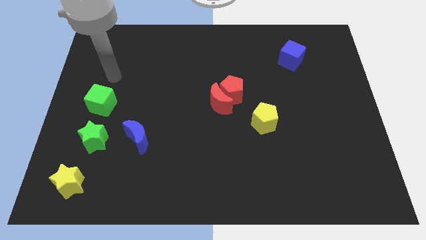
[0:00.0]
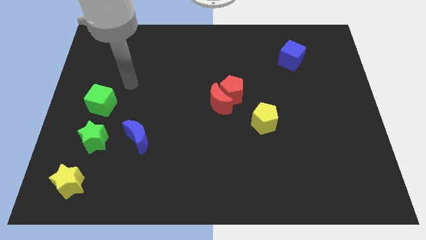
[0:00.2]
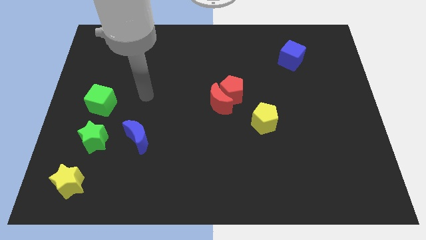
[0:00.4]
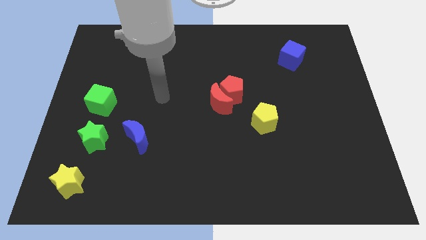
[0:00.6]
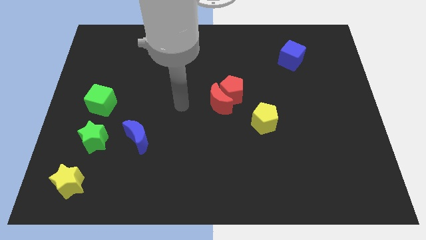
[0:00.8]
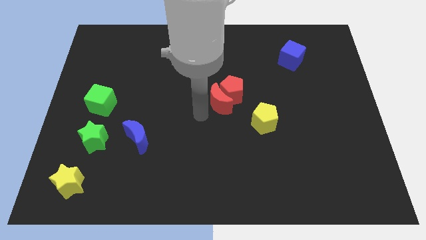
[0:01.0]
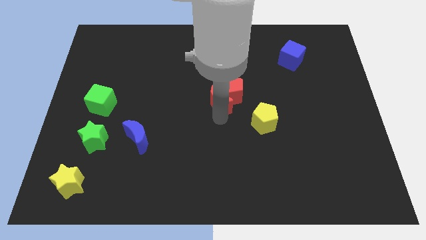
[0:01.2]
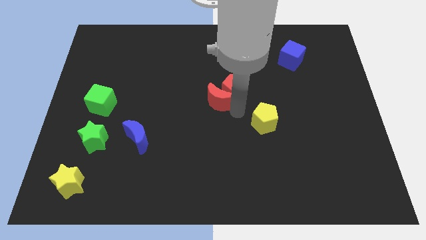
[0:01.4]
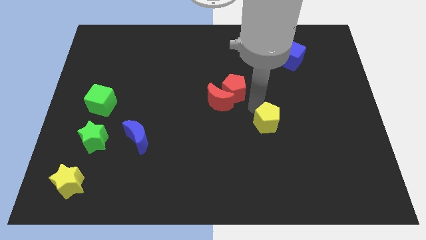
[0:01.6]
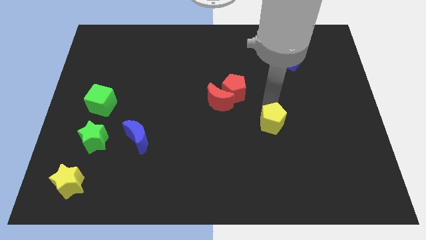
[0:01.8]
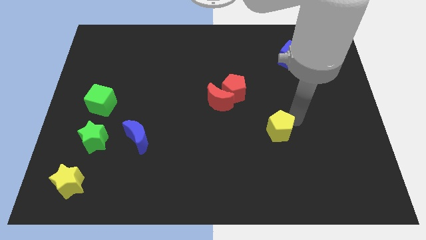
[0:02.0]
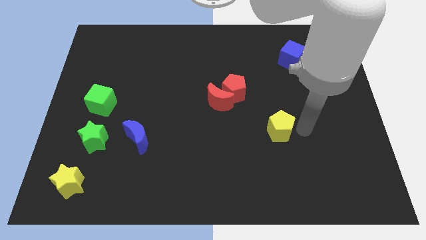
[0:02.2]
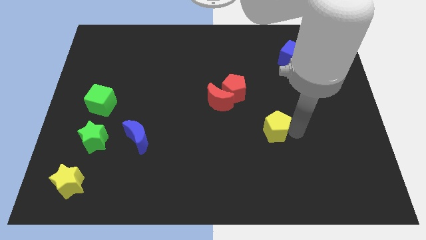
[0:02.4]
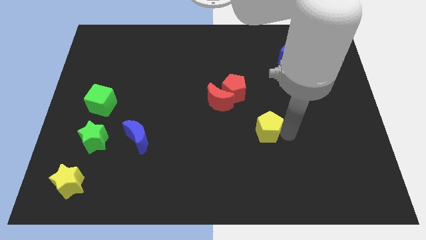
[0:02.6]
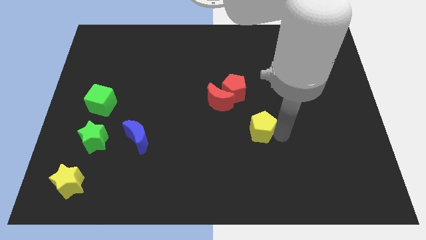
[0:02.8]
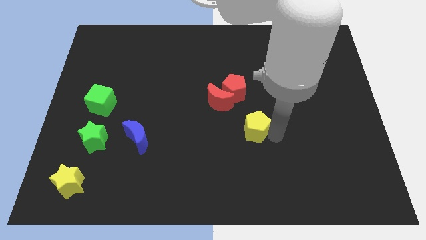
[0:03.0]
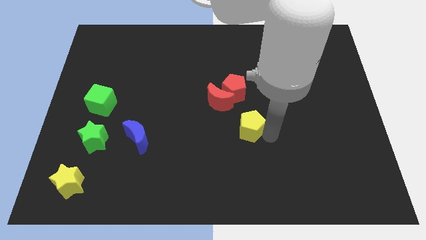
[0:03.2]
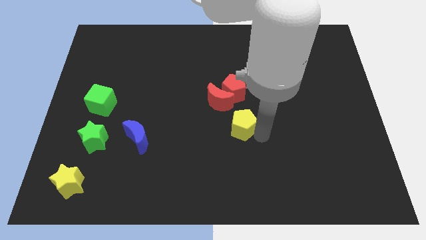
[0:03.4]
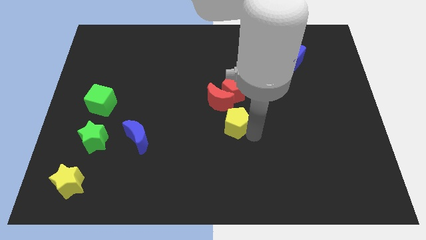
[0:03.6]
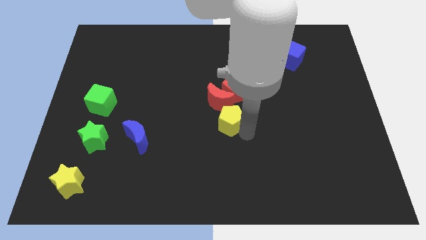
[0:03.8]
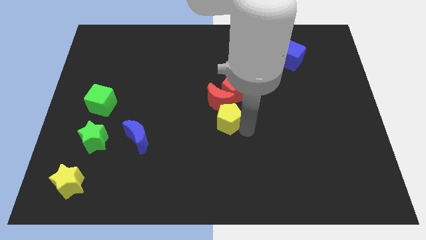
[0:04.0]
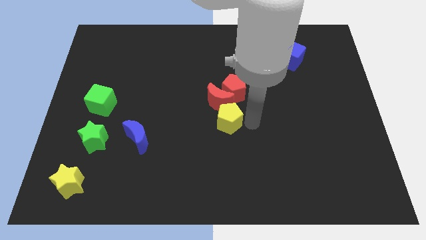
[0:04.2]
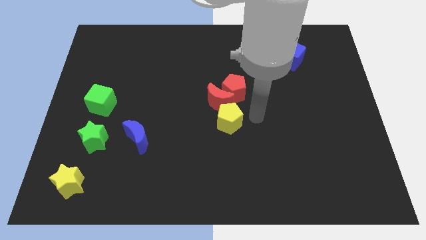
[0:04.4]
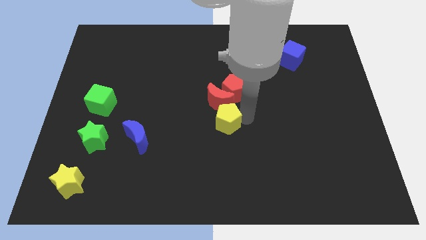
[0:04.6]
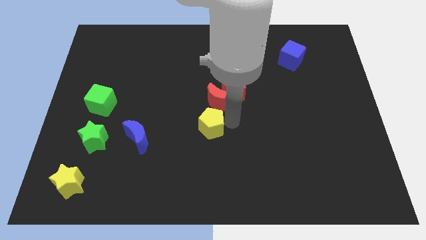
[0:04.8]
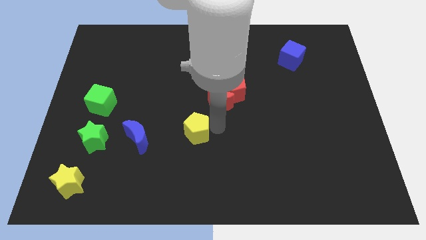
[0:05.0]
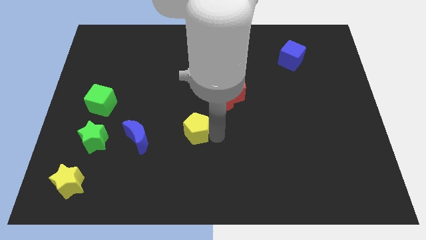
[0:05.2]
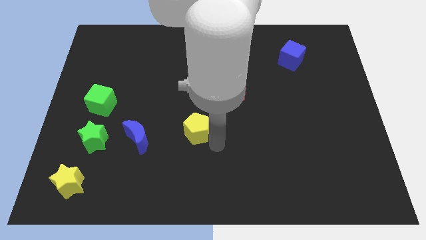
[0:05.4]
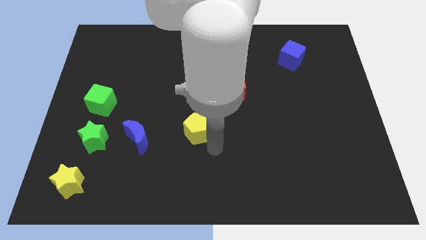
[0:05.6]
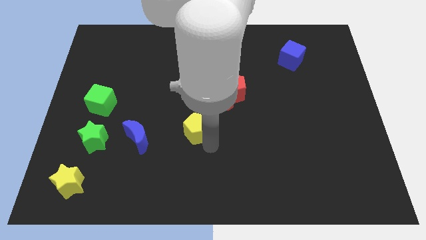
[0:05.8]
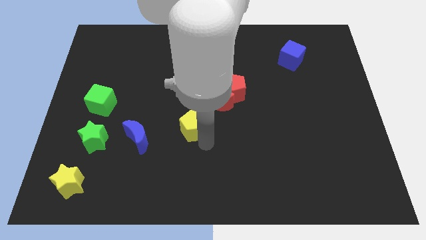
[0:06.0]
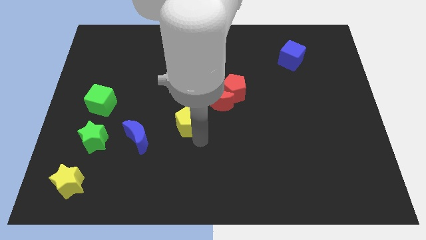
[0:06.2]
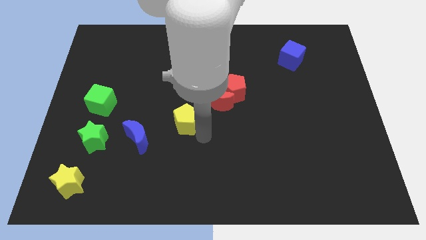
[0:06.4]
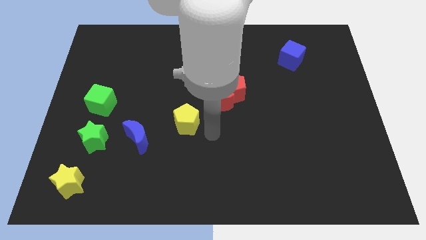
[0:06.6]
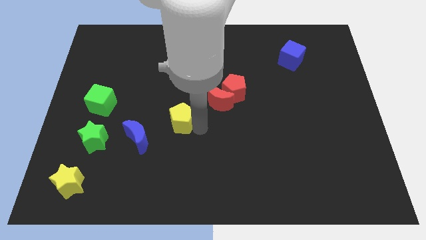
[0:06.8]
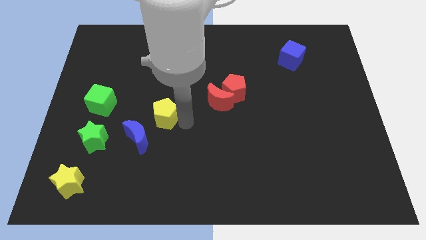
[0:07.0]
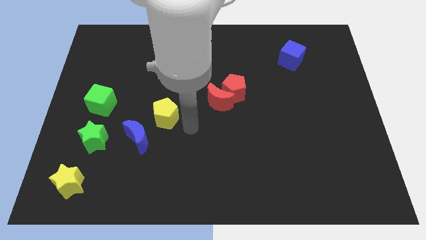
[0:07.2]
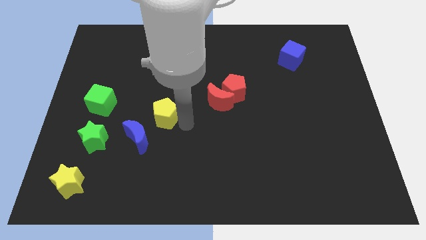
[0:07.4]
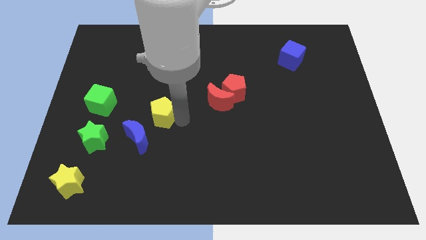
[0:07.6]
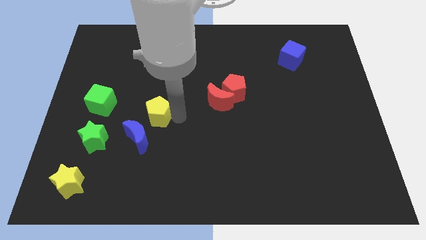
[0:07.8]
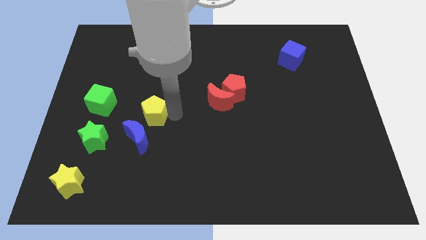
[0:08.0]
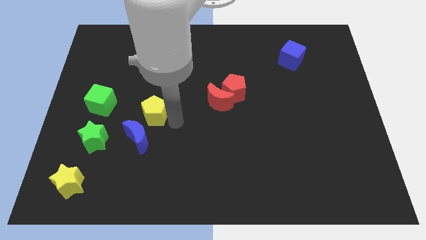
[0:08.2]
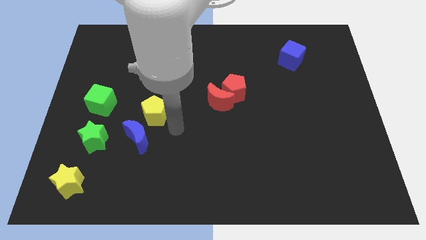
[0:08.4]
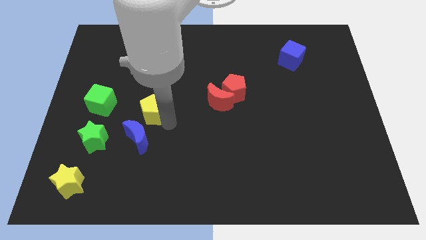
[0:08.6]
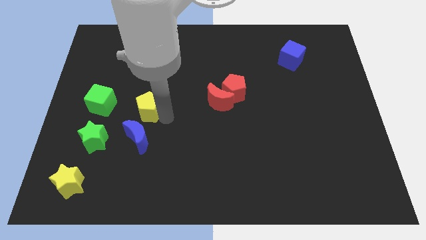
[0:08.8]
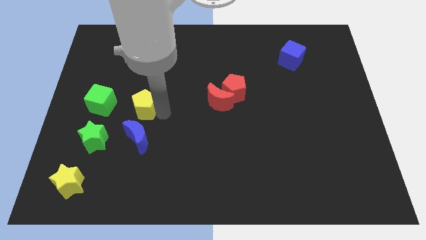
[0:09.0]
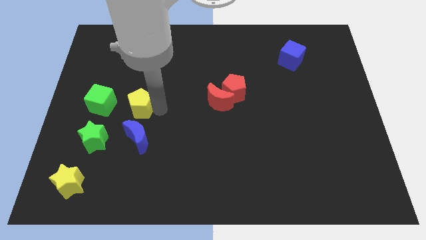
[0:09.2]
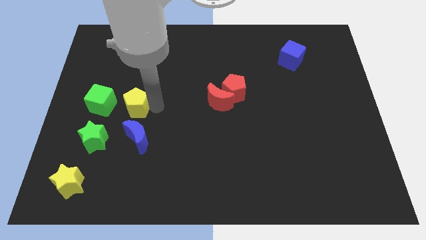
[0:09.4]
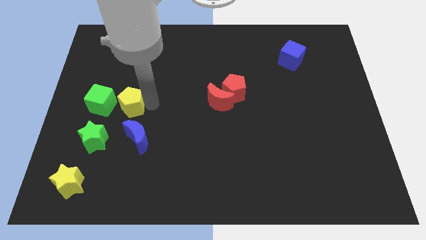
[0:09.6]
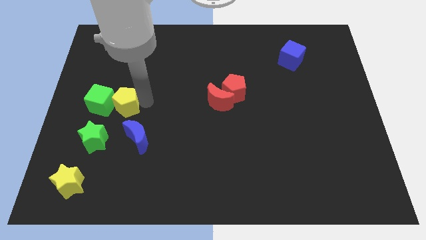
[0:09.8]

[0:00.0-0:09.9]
push the yellow pentagon next to the green cube

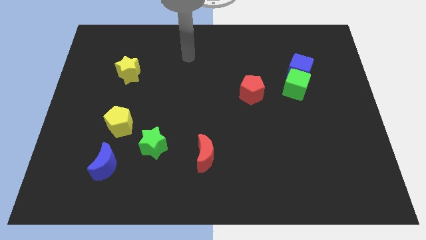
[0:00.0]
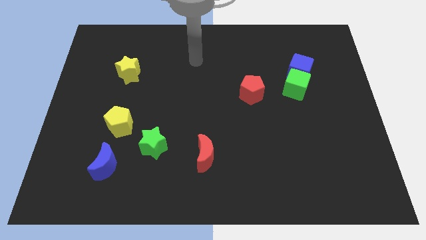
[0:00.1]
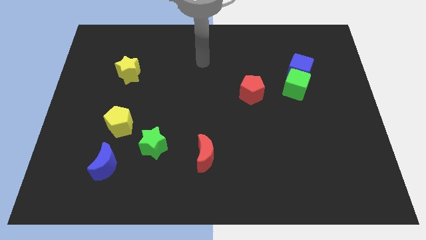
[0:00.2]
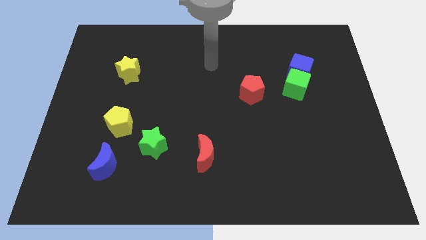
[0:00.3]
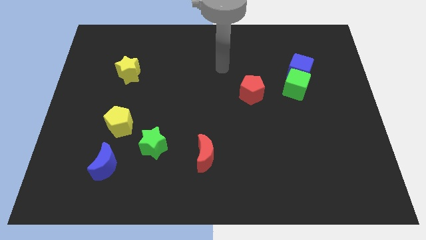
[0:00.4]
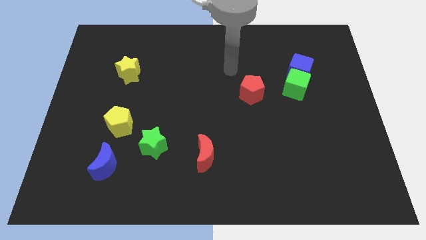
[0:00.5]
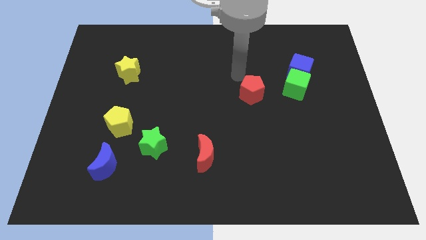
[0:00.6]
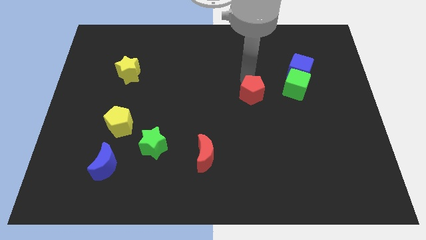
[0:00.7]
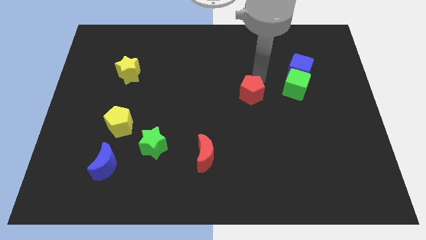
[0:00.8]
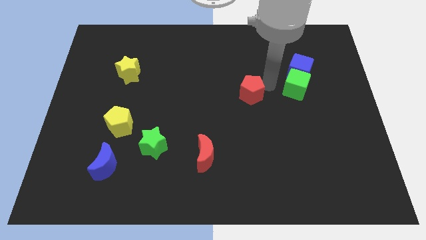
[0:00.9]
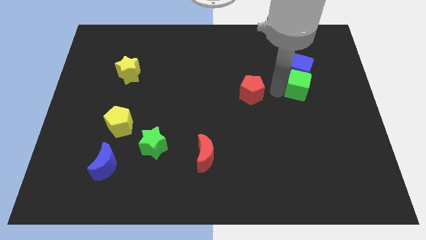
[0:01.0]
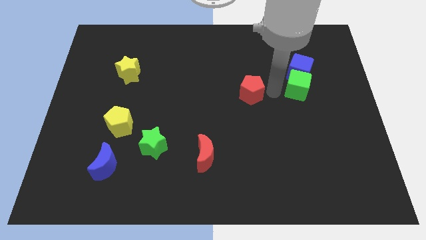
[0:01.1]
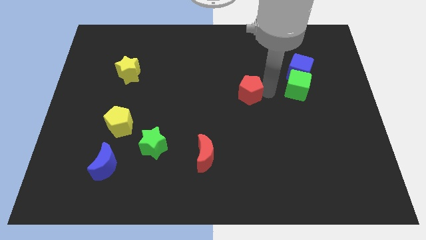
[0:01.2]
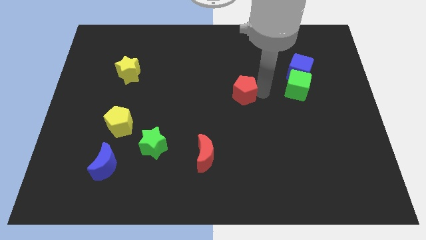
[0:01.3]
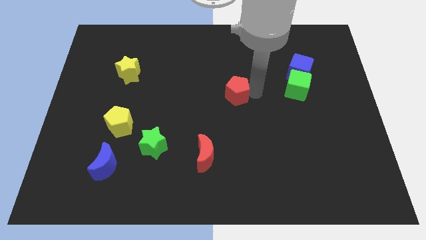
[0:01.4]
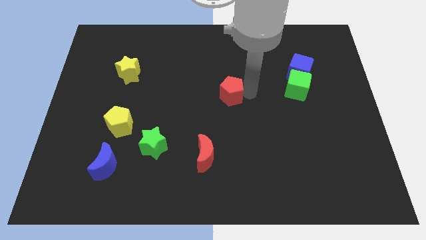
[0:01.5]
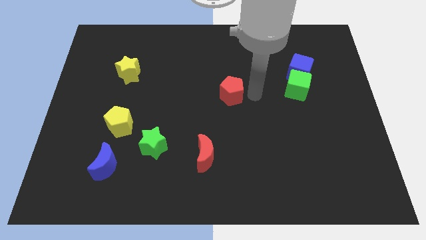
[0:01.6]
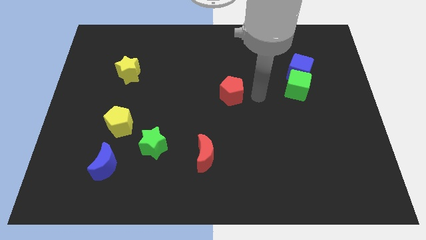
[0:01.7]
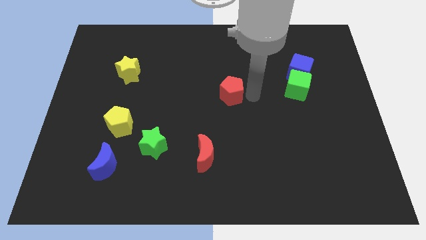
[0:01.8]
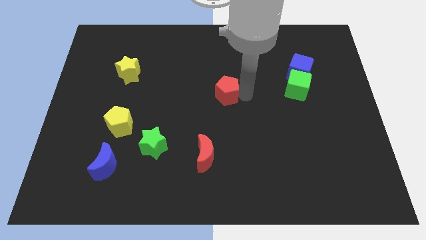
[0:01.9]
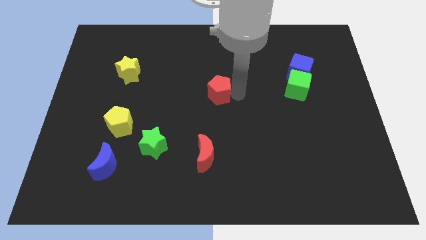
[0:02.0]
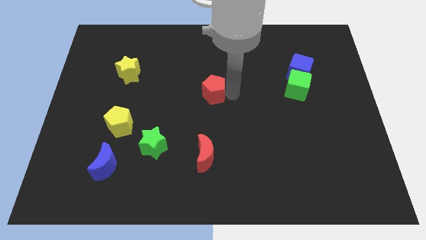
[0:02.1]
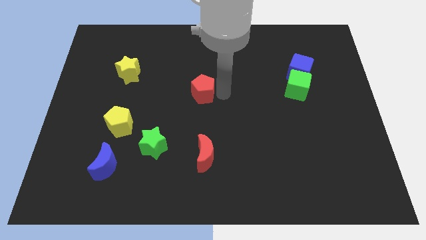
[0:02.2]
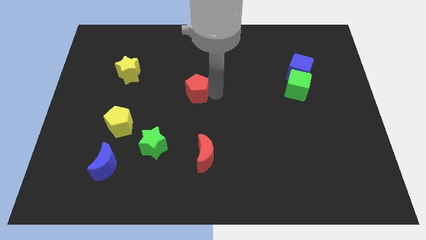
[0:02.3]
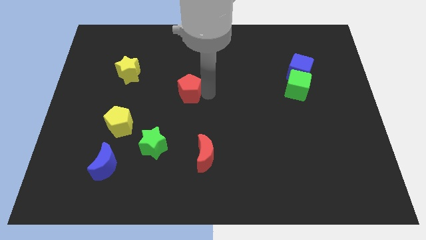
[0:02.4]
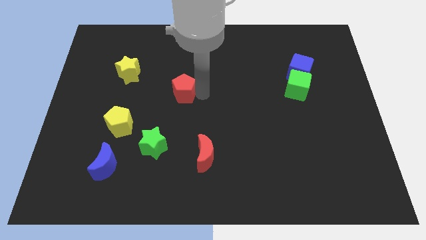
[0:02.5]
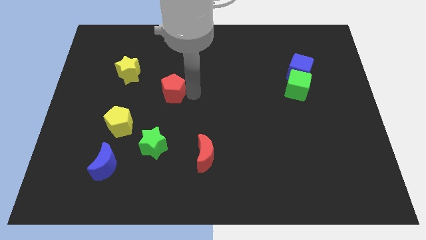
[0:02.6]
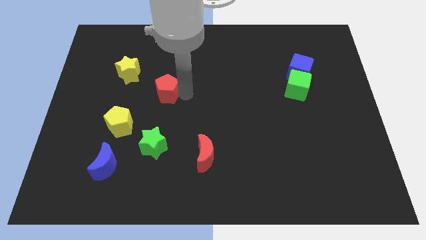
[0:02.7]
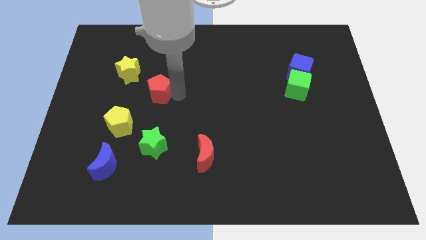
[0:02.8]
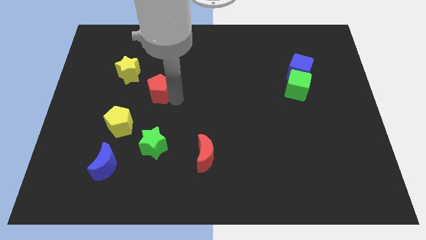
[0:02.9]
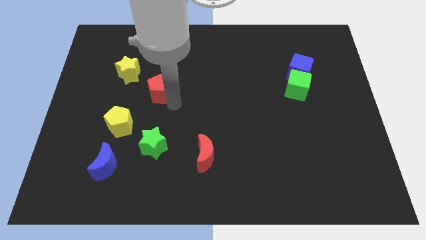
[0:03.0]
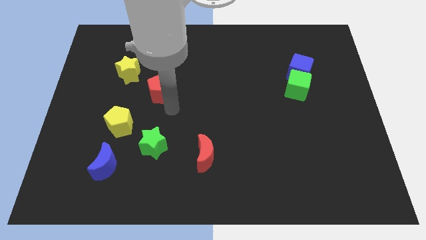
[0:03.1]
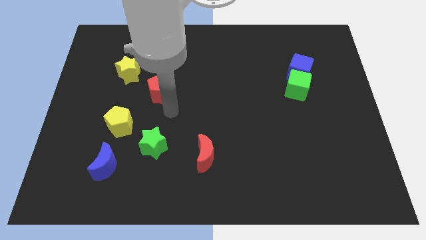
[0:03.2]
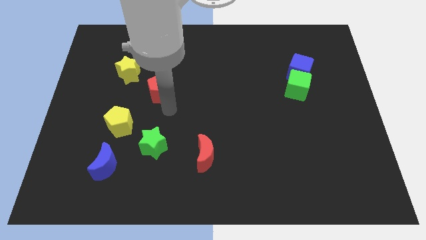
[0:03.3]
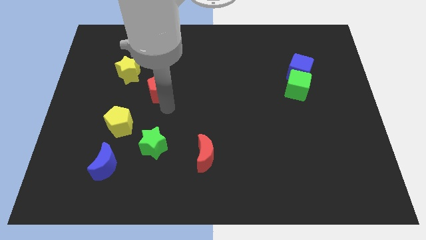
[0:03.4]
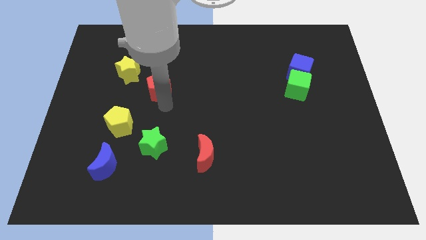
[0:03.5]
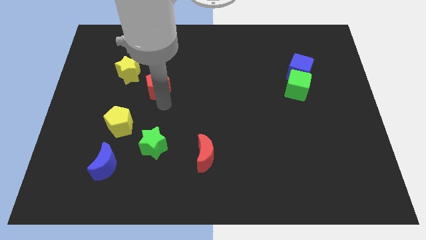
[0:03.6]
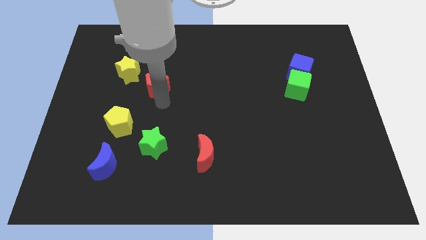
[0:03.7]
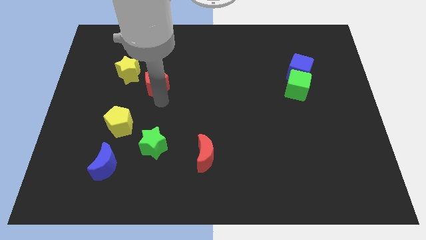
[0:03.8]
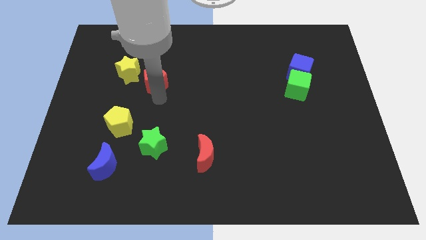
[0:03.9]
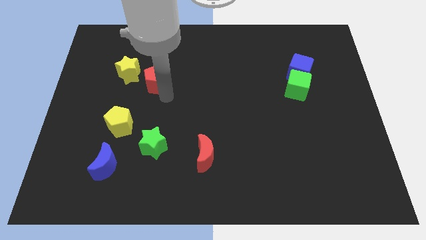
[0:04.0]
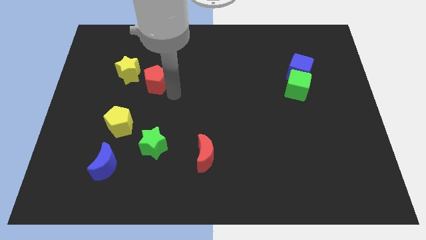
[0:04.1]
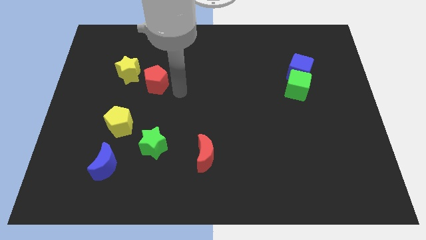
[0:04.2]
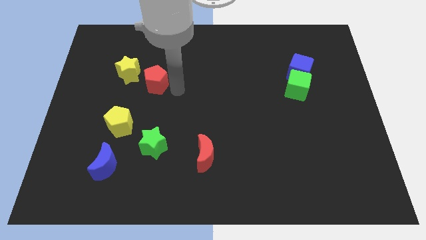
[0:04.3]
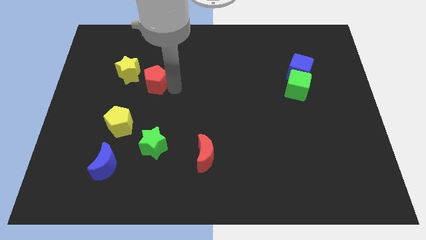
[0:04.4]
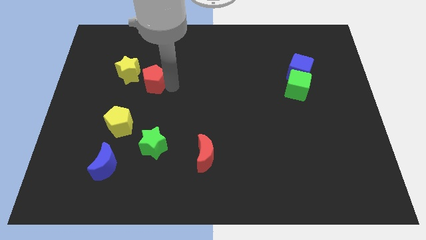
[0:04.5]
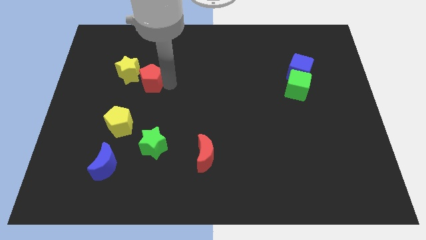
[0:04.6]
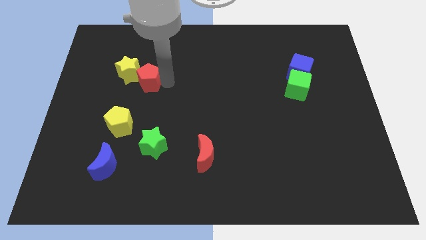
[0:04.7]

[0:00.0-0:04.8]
move the red pentagon to the yellow star
